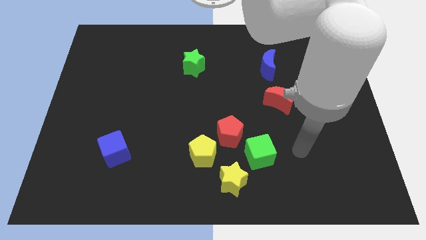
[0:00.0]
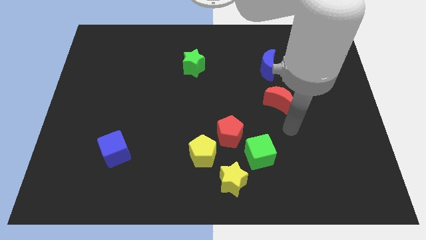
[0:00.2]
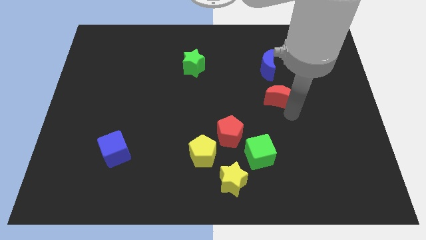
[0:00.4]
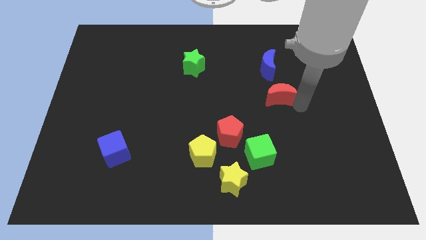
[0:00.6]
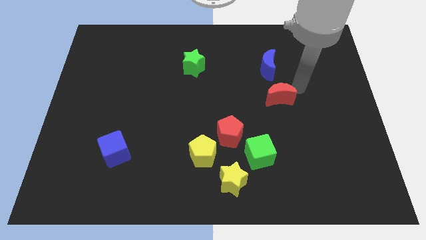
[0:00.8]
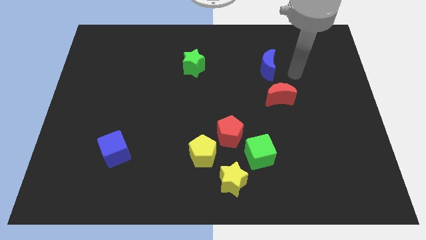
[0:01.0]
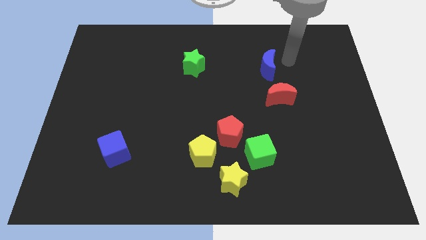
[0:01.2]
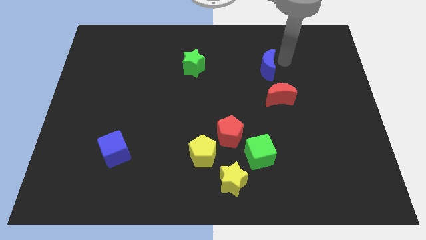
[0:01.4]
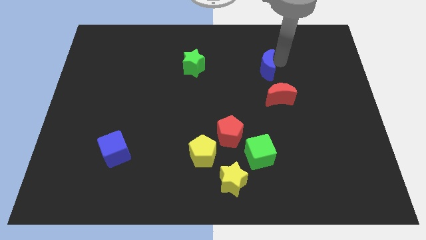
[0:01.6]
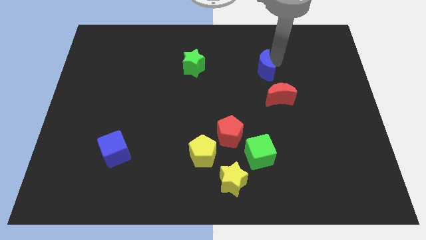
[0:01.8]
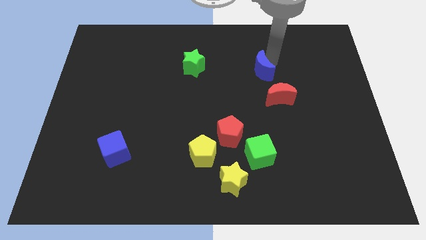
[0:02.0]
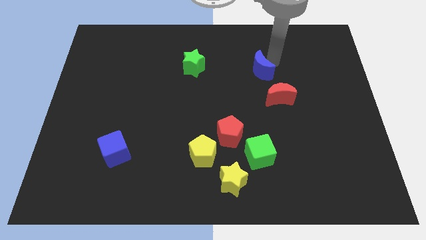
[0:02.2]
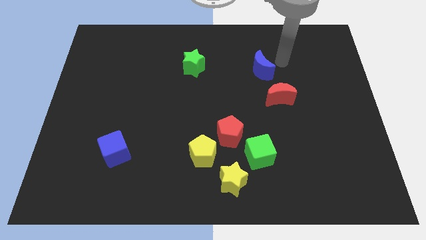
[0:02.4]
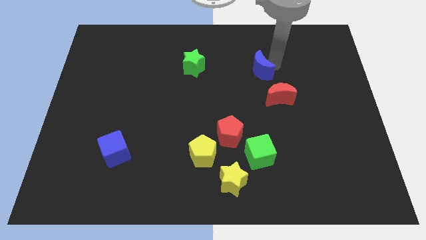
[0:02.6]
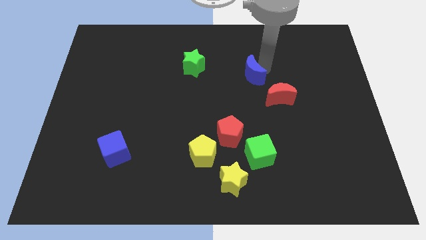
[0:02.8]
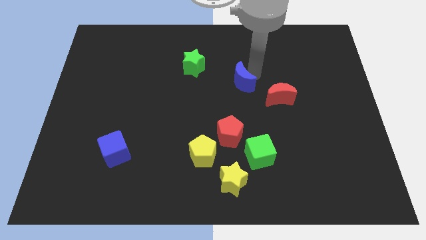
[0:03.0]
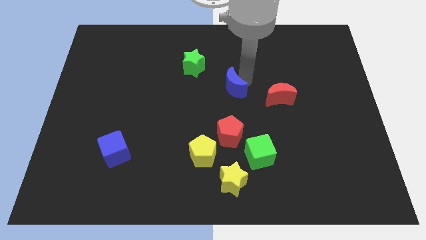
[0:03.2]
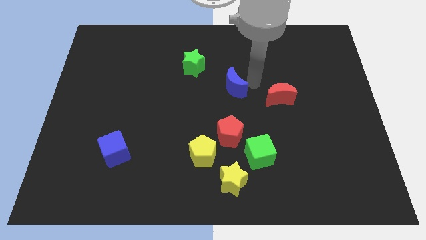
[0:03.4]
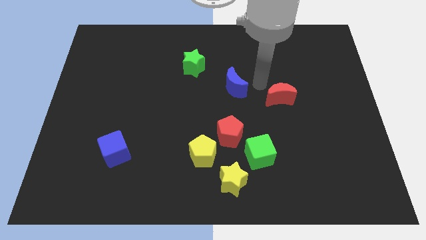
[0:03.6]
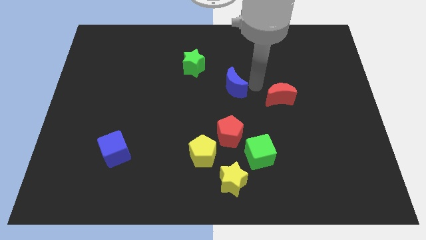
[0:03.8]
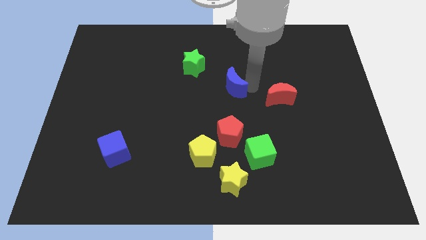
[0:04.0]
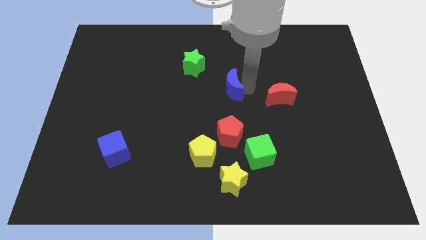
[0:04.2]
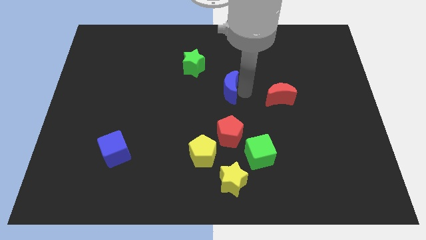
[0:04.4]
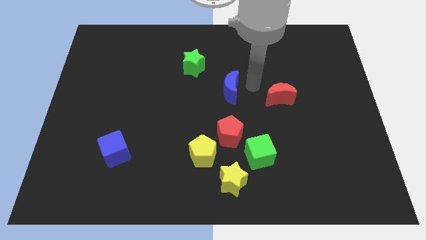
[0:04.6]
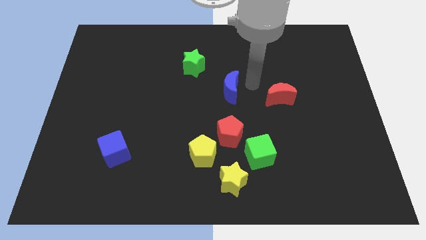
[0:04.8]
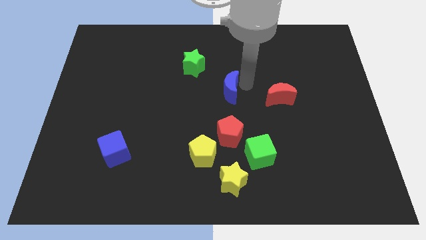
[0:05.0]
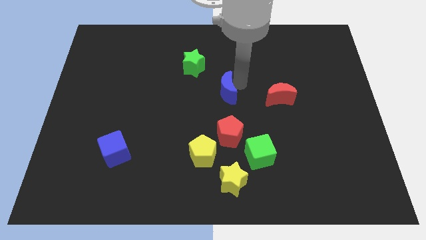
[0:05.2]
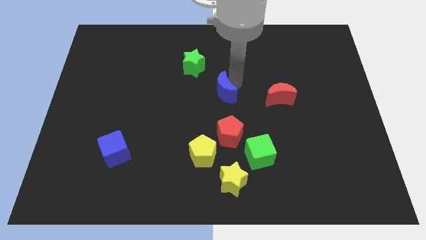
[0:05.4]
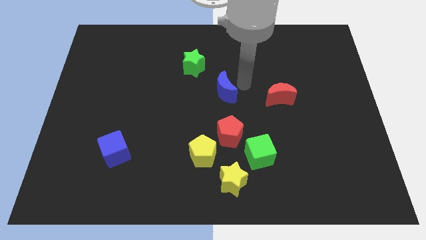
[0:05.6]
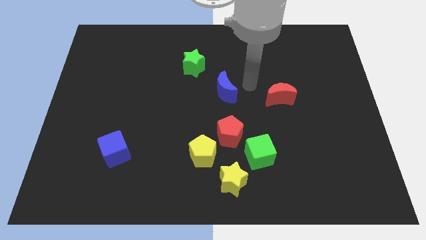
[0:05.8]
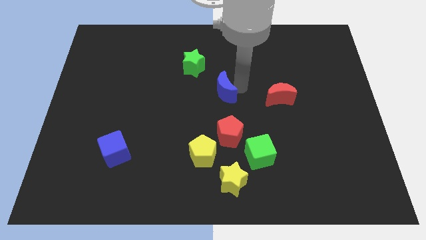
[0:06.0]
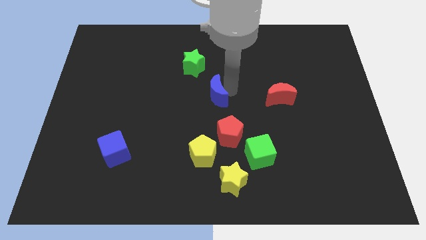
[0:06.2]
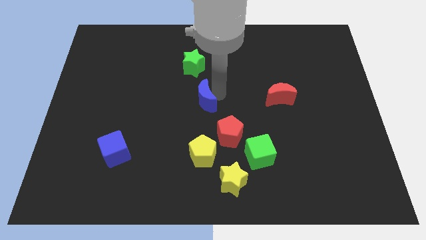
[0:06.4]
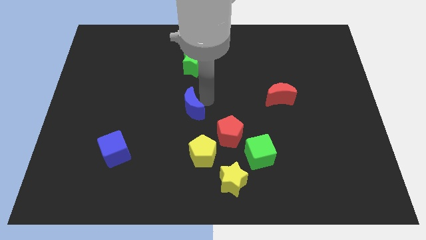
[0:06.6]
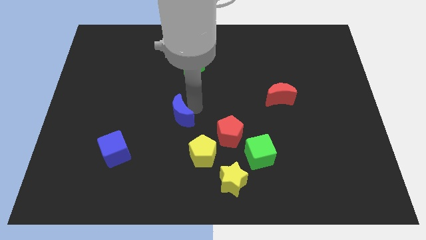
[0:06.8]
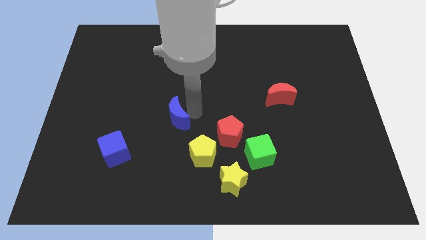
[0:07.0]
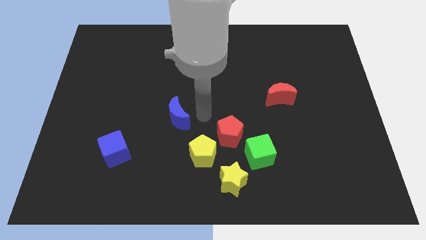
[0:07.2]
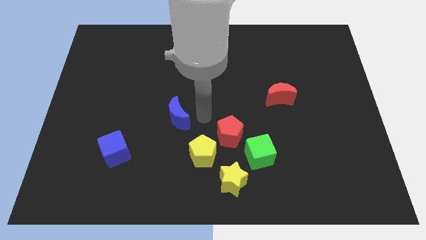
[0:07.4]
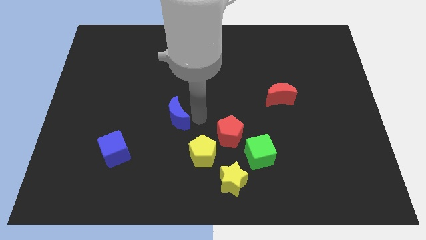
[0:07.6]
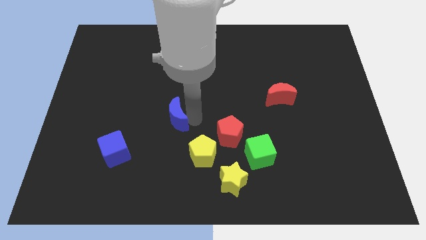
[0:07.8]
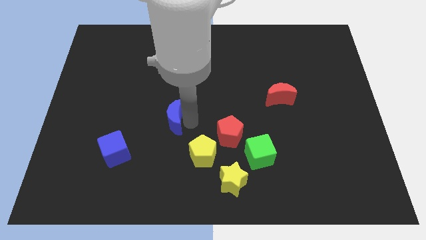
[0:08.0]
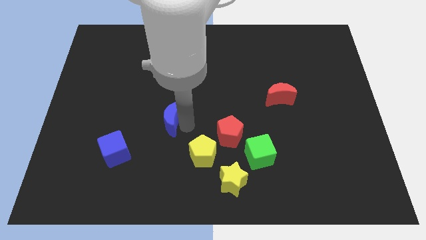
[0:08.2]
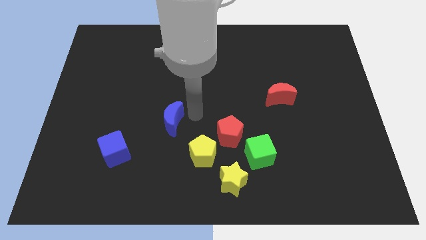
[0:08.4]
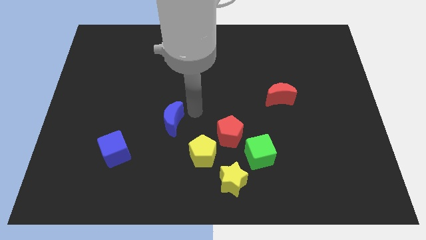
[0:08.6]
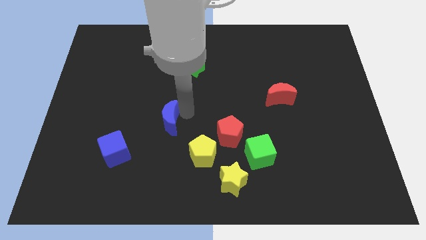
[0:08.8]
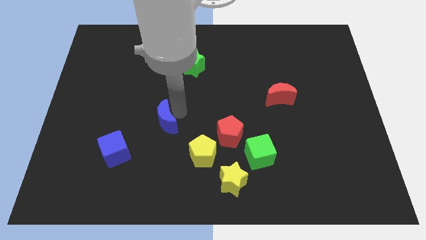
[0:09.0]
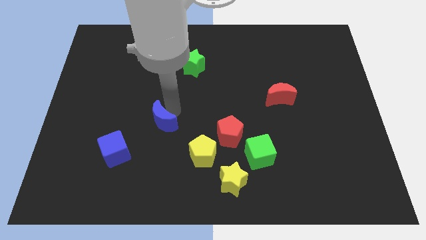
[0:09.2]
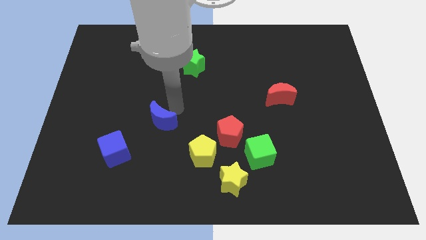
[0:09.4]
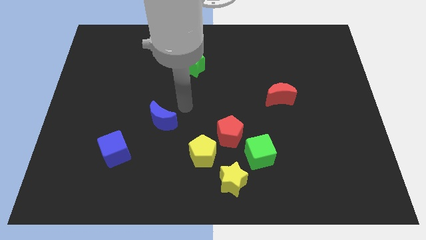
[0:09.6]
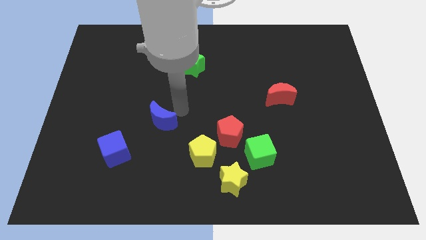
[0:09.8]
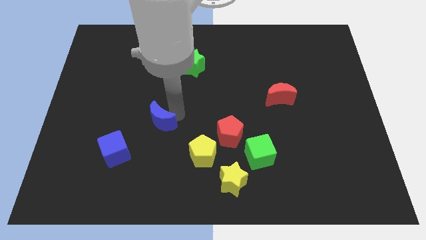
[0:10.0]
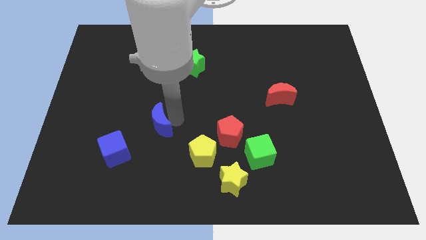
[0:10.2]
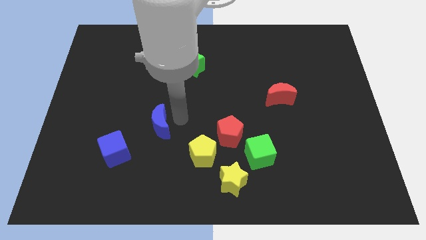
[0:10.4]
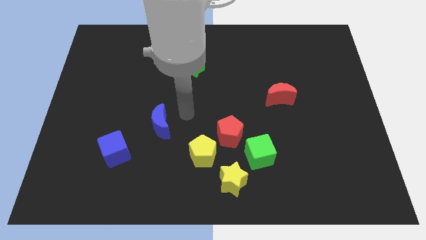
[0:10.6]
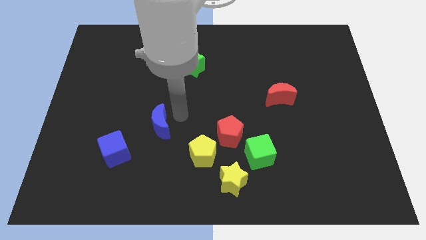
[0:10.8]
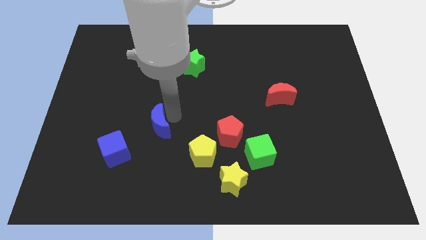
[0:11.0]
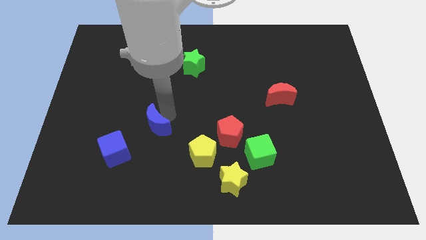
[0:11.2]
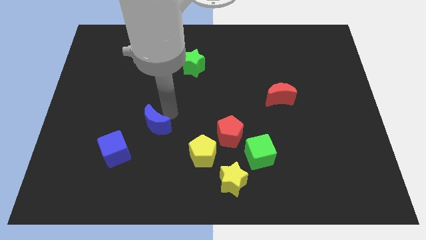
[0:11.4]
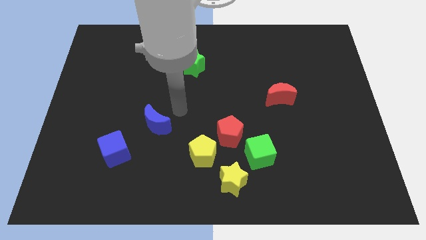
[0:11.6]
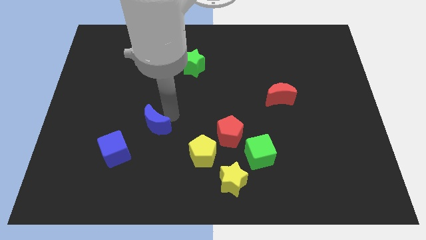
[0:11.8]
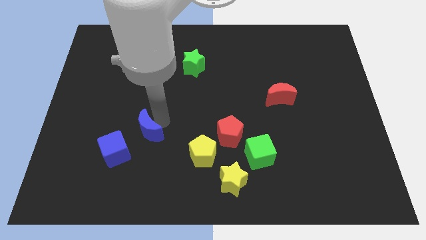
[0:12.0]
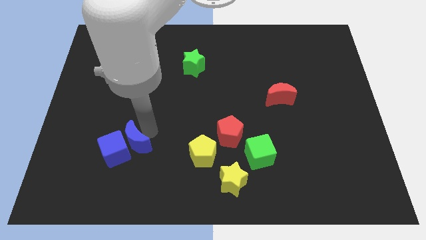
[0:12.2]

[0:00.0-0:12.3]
push the blue moon to the blue cube

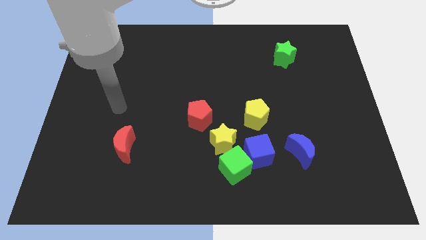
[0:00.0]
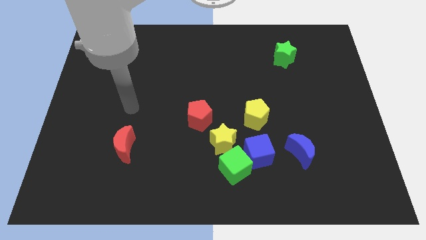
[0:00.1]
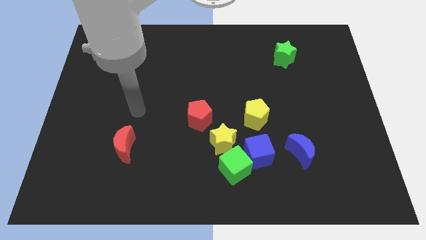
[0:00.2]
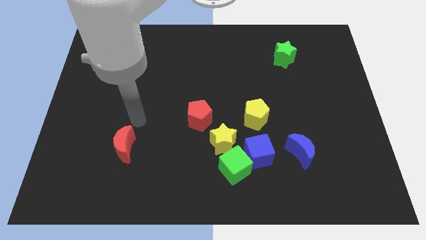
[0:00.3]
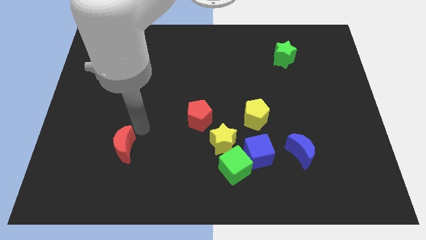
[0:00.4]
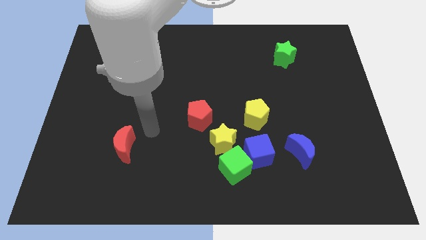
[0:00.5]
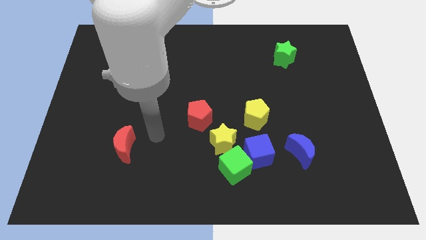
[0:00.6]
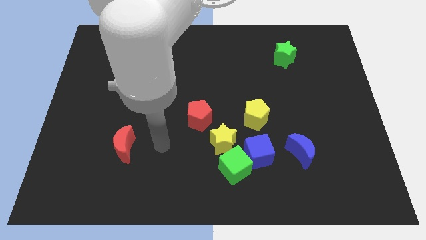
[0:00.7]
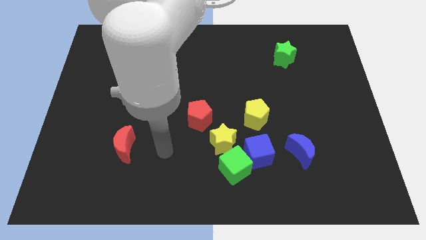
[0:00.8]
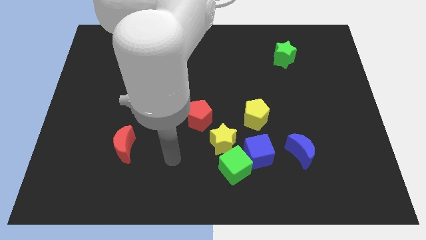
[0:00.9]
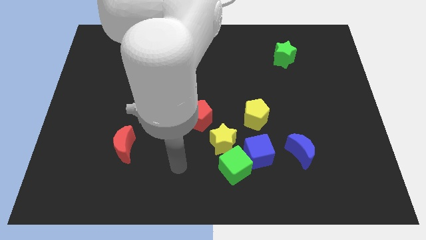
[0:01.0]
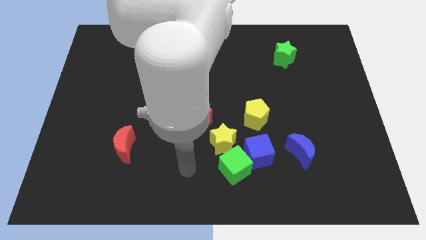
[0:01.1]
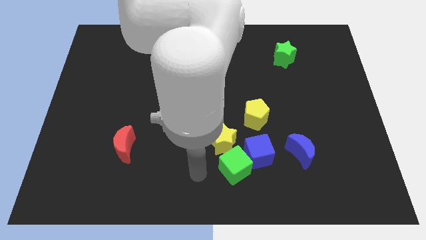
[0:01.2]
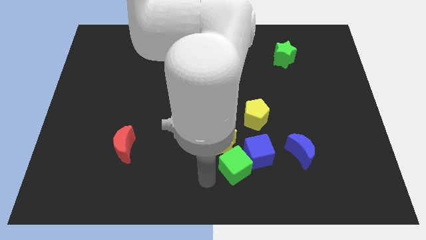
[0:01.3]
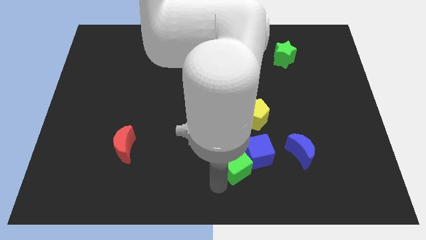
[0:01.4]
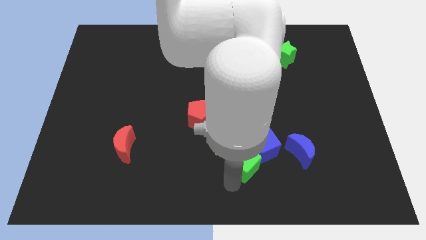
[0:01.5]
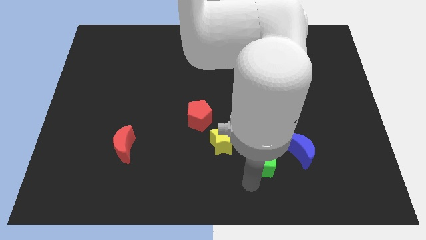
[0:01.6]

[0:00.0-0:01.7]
move the blue cube towards the yellow pentagon
